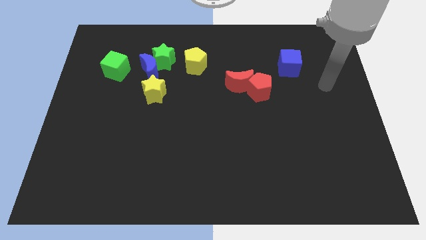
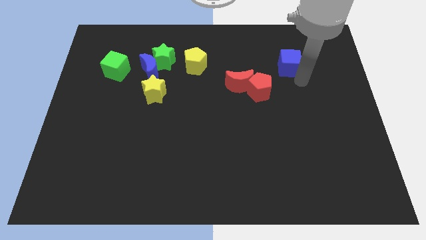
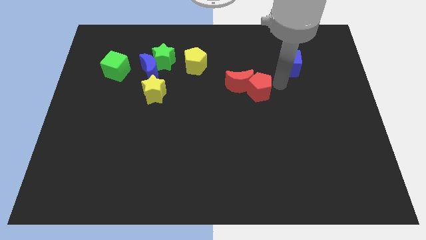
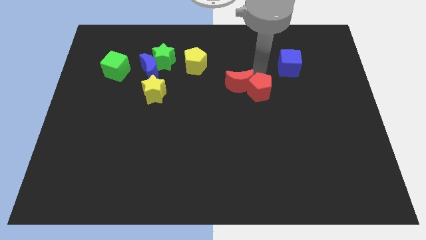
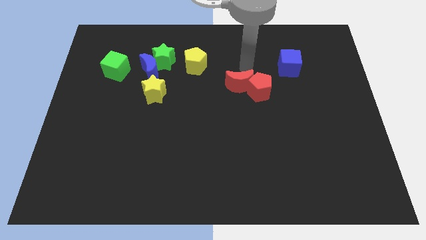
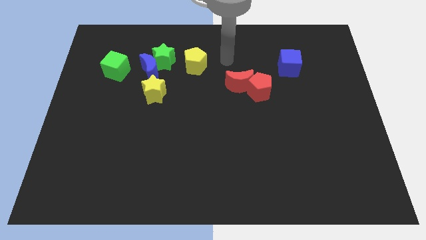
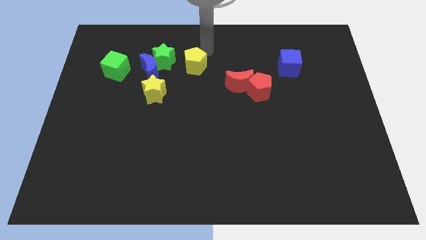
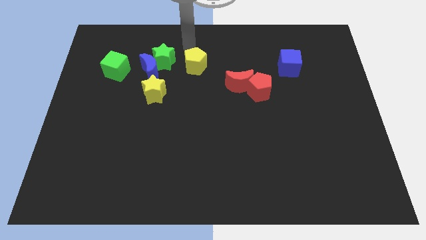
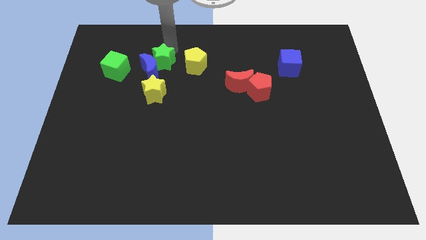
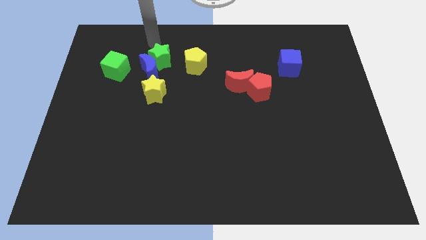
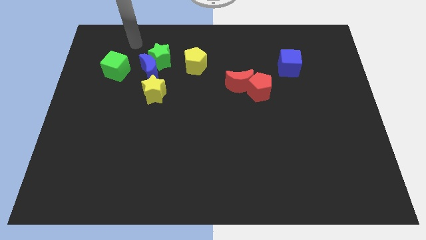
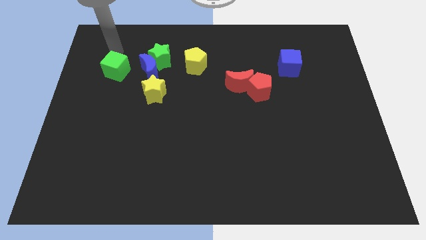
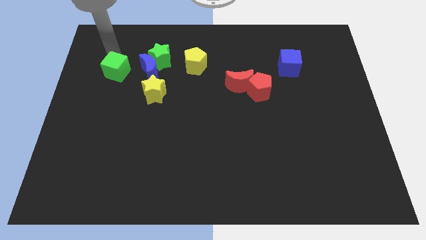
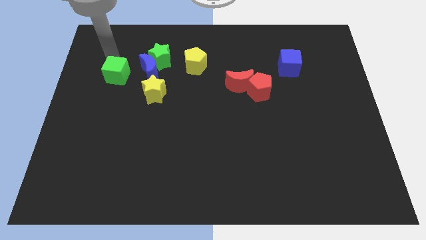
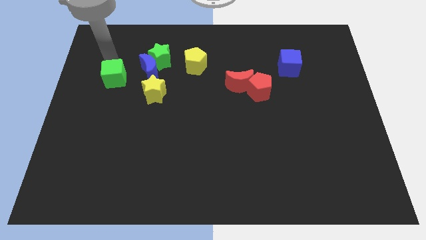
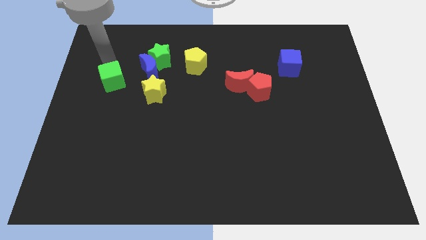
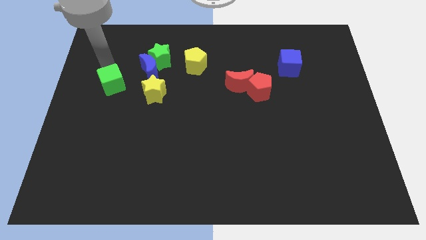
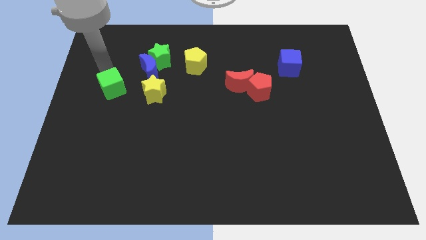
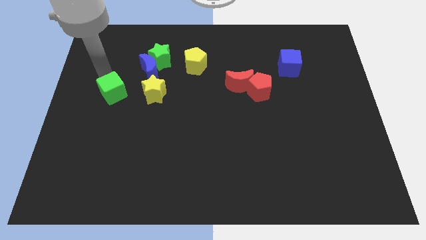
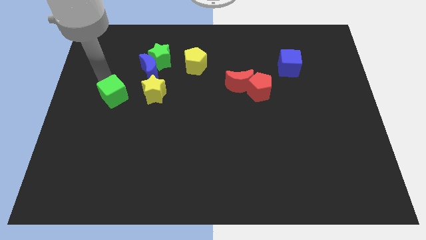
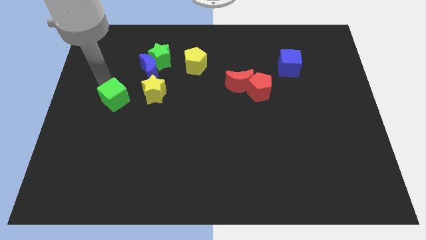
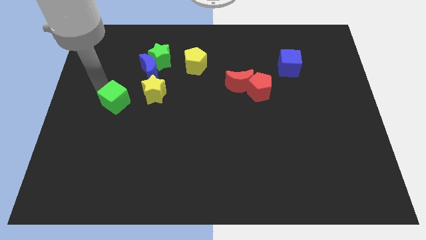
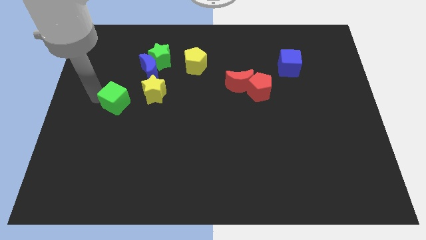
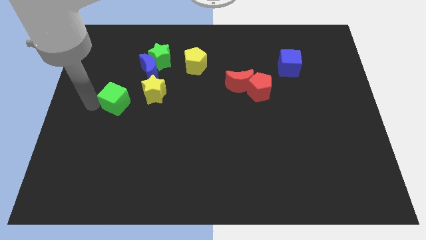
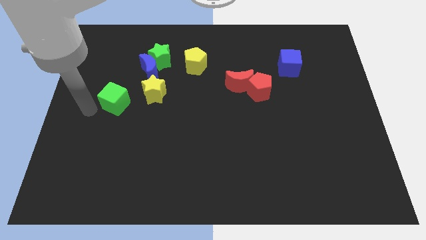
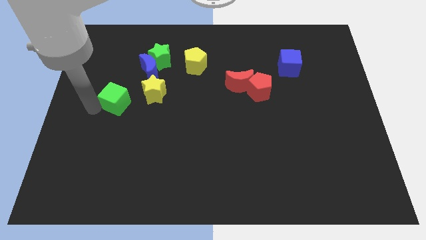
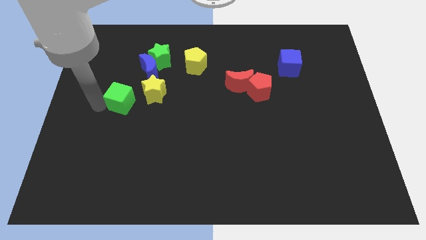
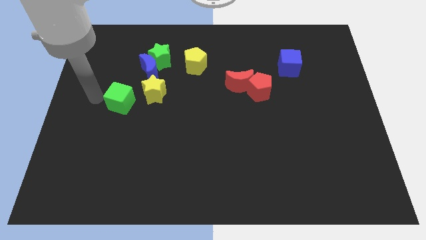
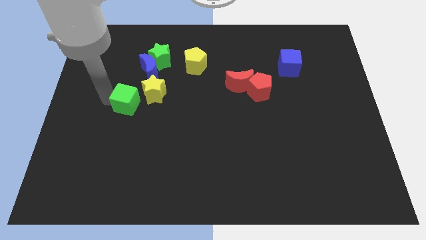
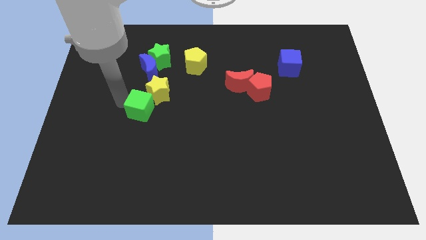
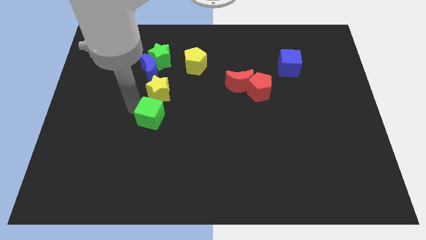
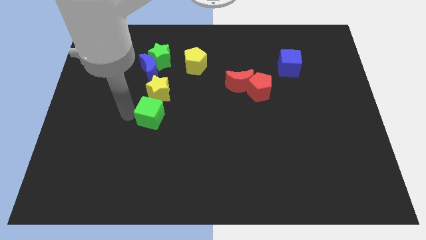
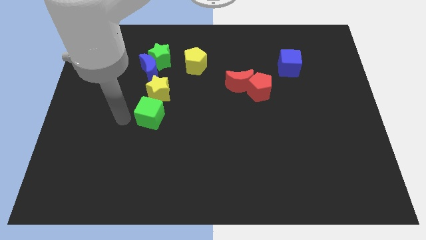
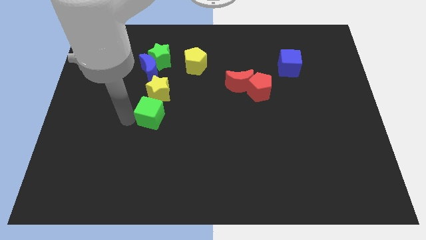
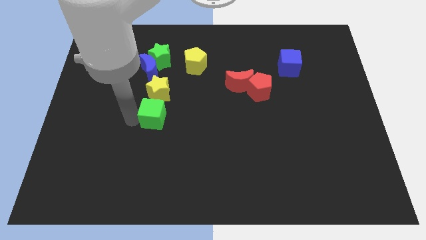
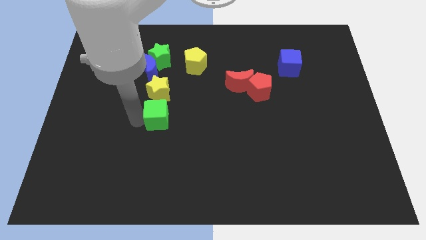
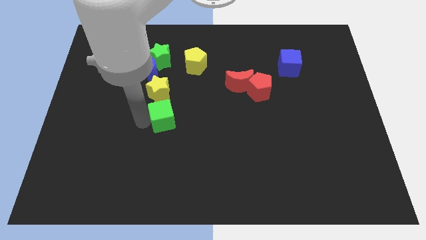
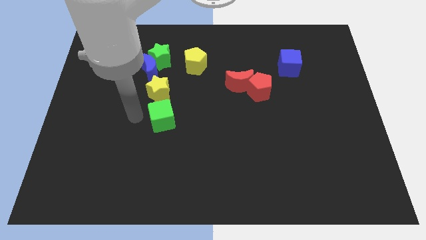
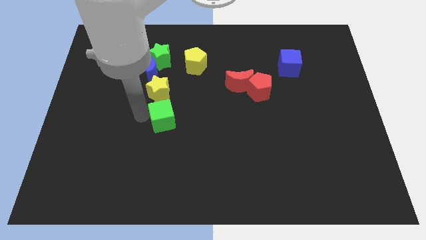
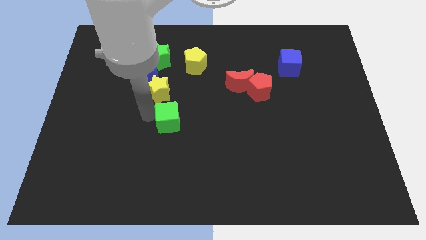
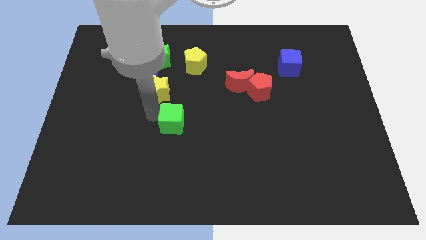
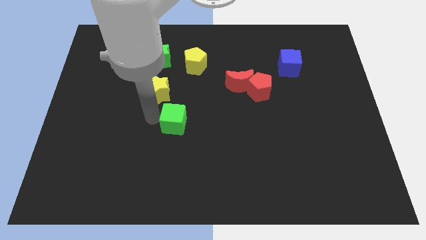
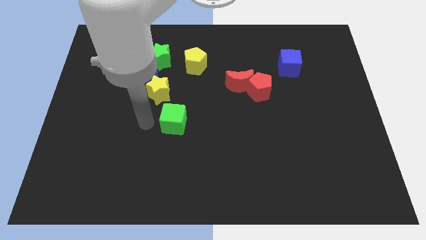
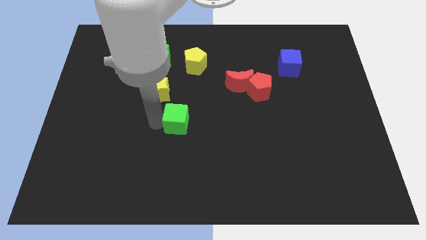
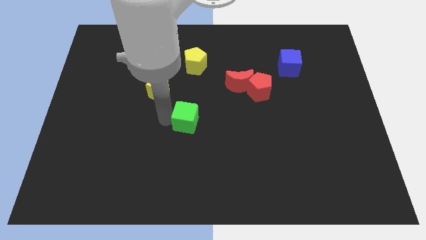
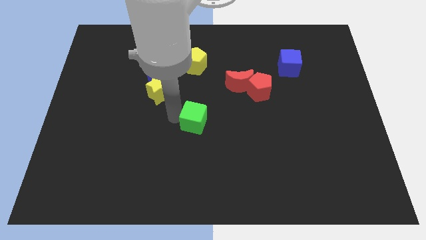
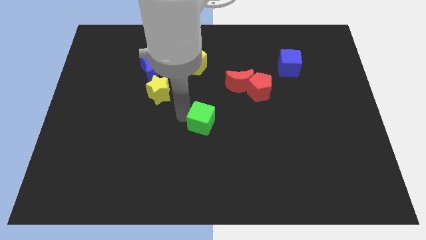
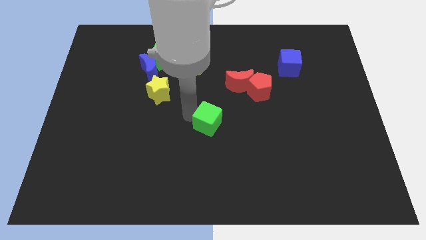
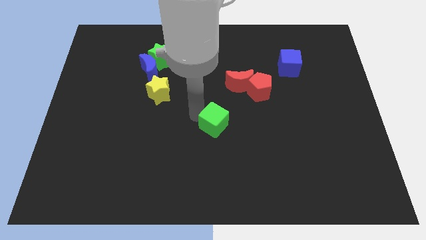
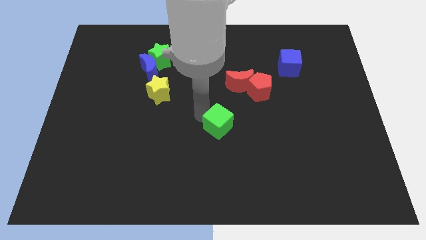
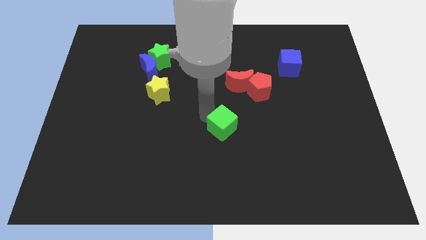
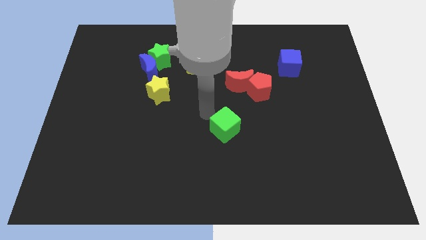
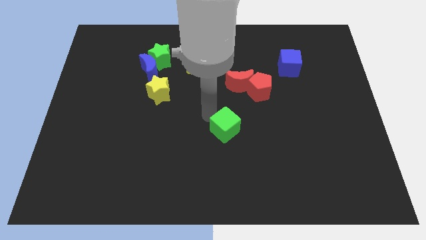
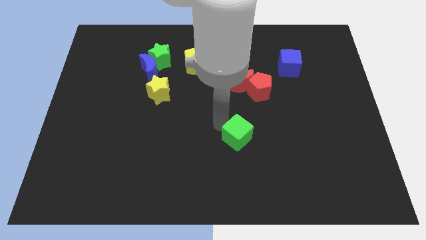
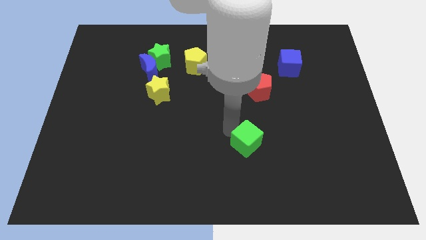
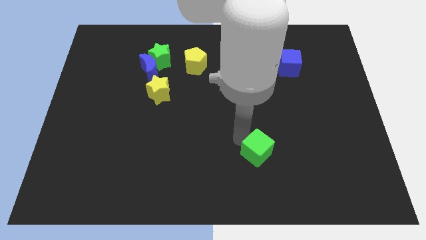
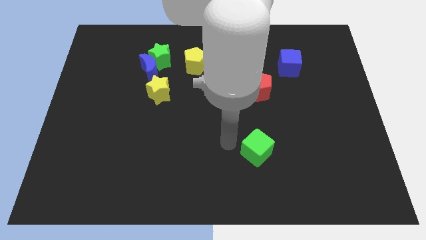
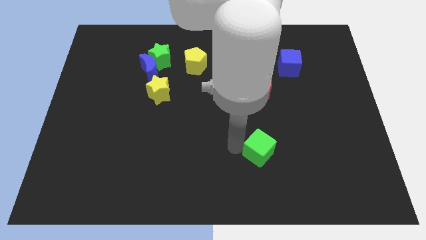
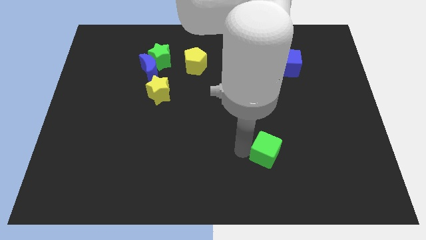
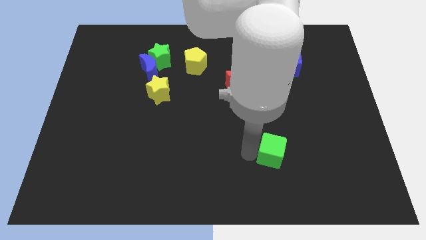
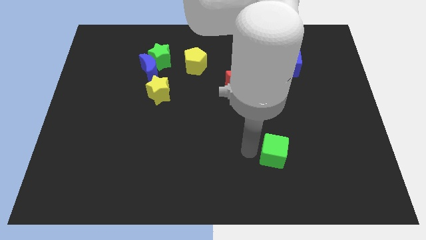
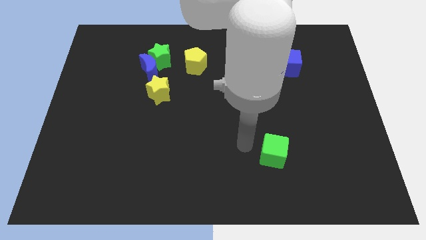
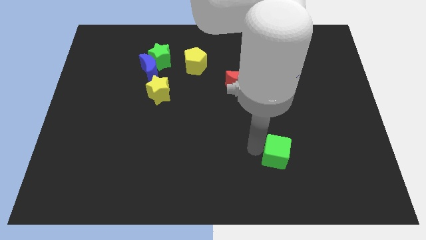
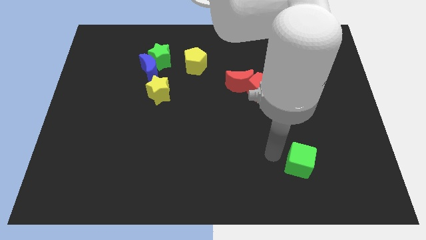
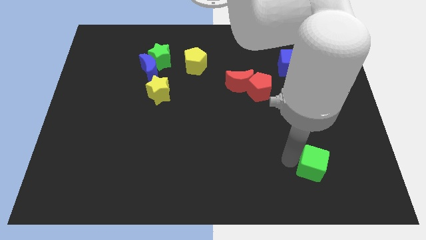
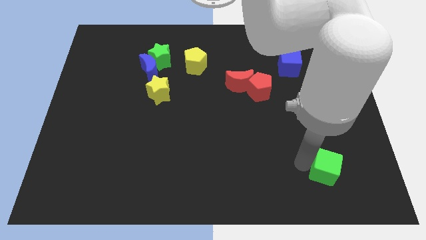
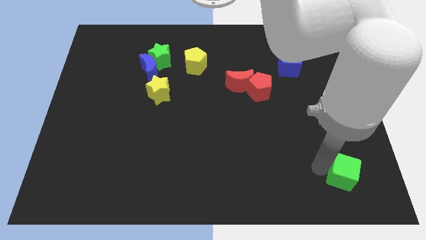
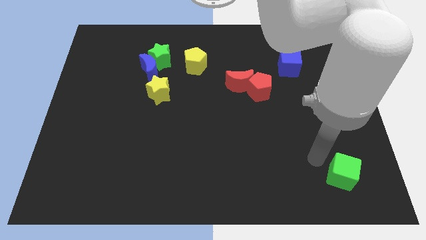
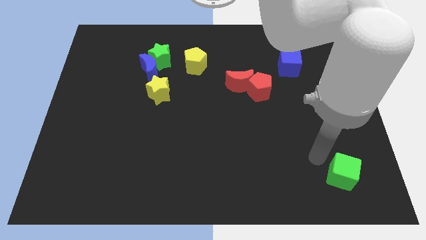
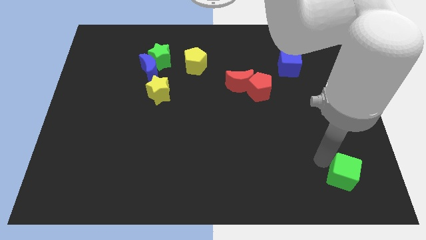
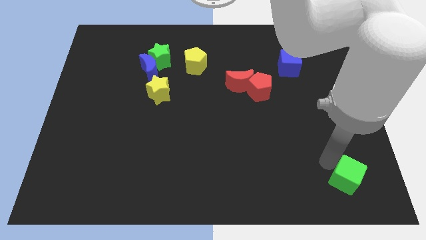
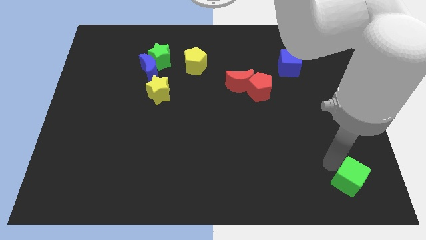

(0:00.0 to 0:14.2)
push the green cube to the lower right corner
